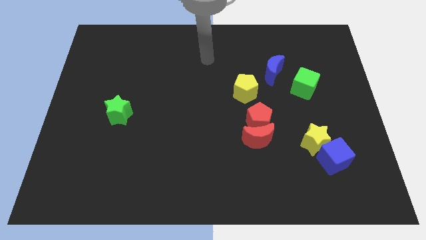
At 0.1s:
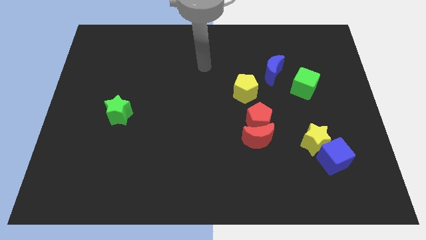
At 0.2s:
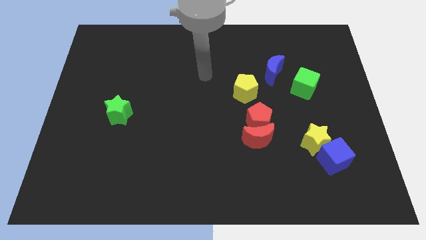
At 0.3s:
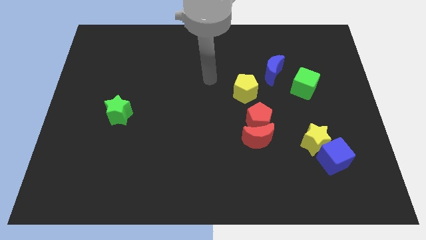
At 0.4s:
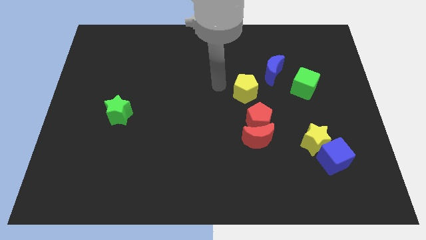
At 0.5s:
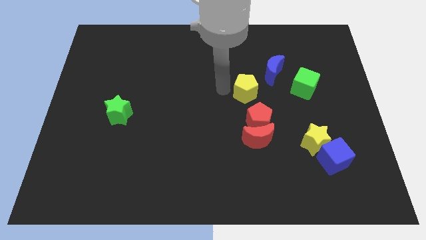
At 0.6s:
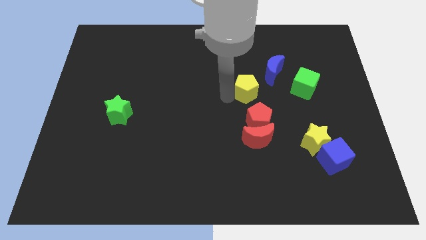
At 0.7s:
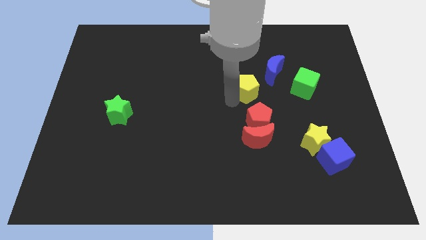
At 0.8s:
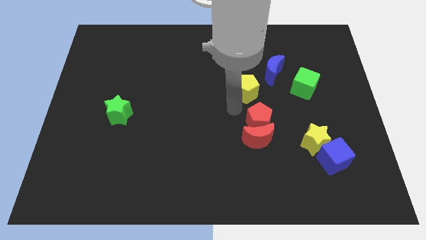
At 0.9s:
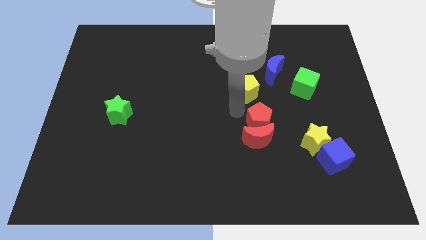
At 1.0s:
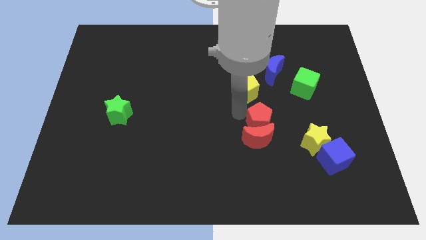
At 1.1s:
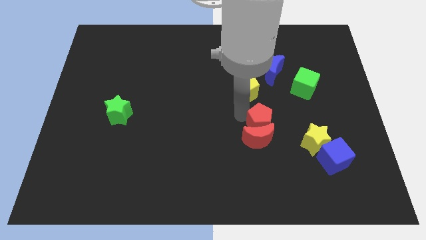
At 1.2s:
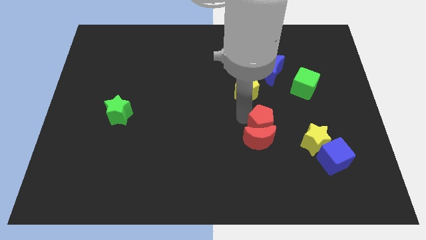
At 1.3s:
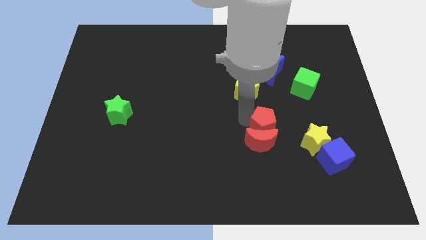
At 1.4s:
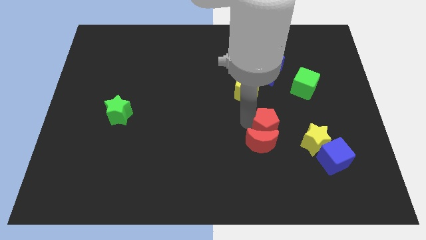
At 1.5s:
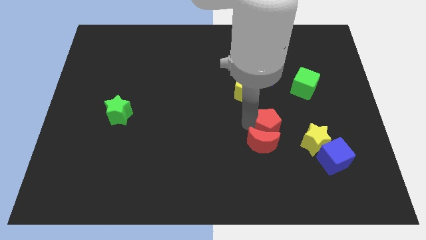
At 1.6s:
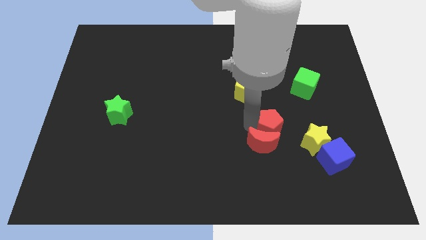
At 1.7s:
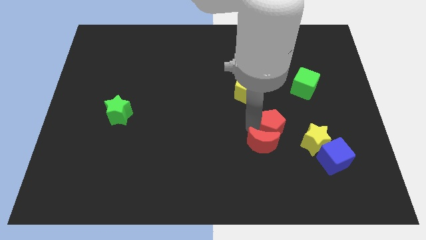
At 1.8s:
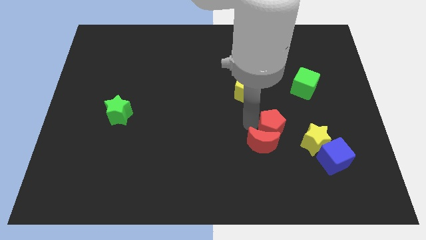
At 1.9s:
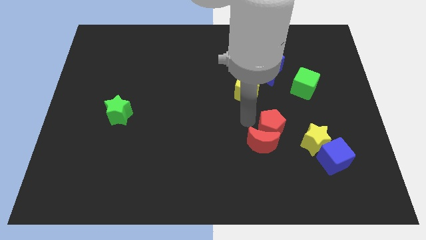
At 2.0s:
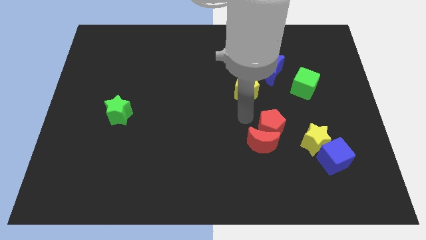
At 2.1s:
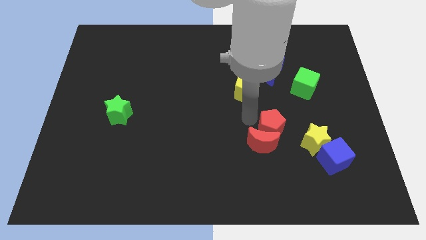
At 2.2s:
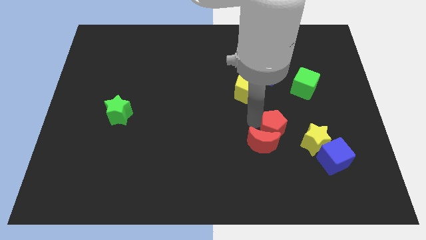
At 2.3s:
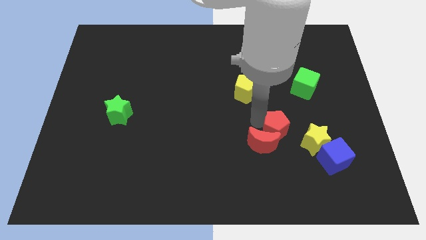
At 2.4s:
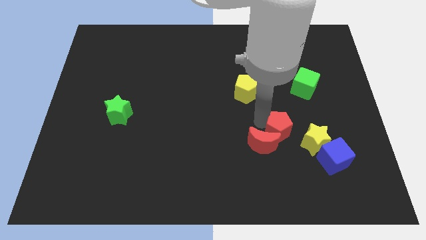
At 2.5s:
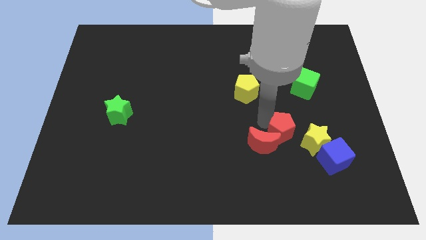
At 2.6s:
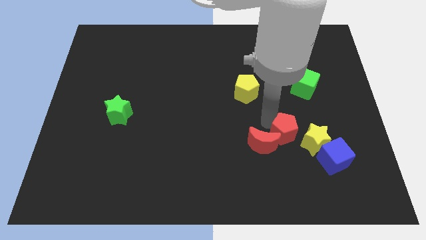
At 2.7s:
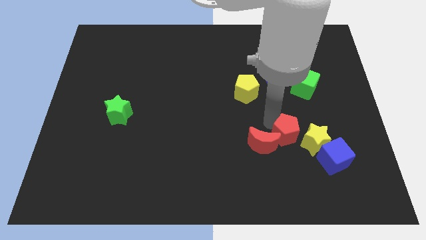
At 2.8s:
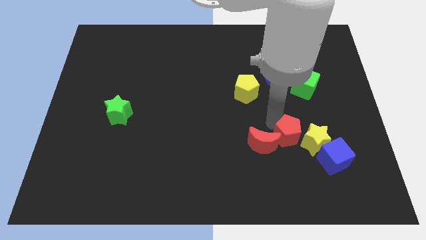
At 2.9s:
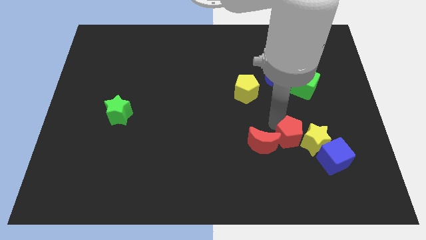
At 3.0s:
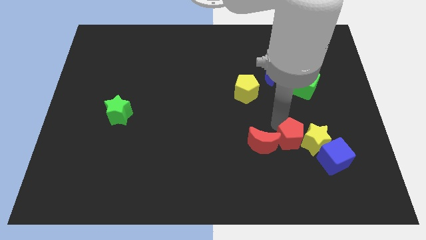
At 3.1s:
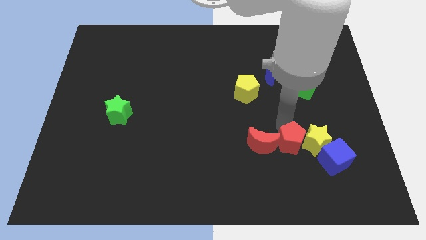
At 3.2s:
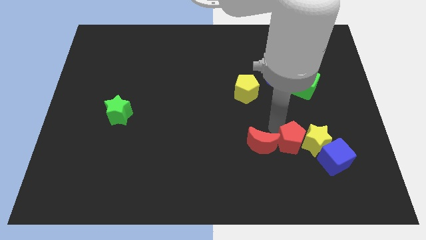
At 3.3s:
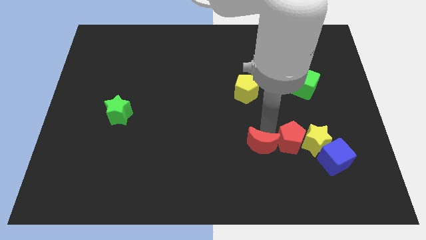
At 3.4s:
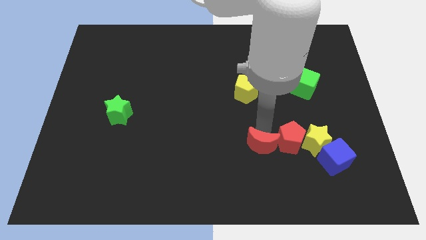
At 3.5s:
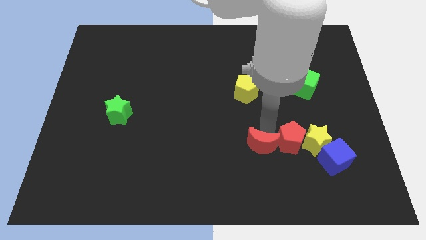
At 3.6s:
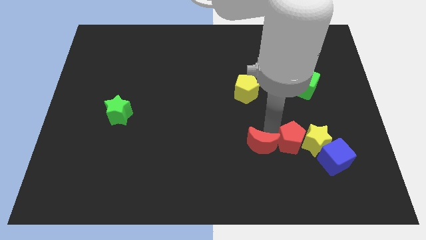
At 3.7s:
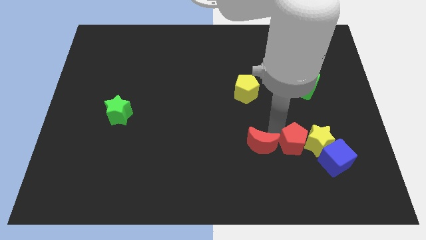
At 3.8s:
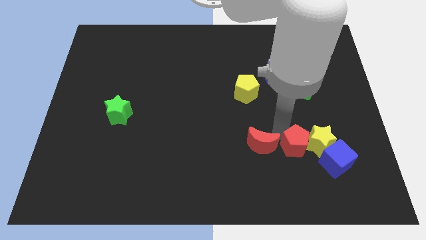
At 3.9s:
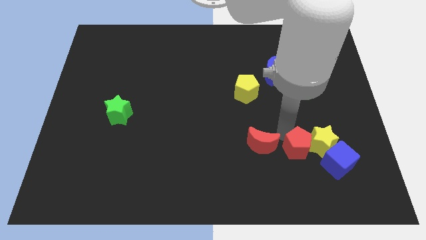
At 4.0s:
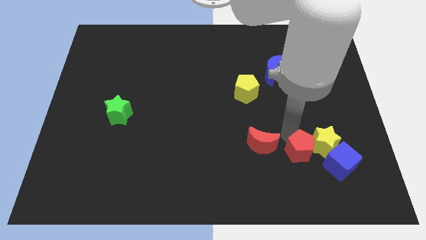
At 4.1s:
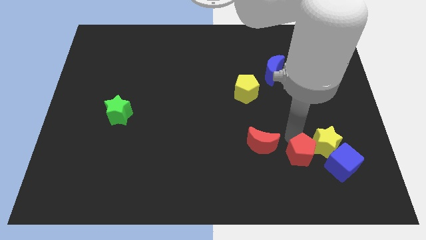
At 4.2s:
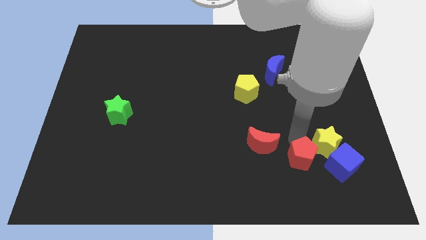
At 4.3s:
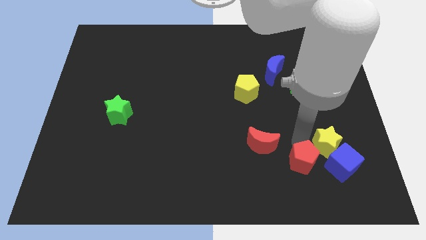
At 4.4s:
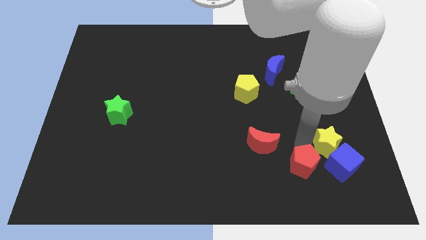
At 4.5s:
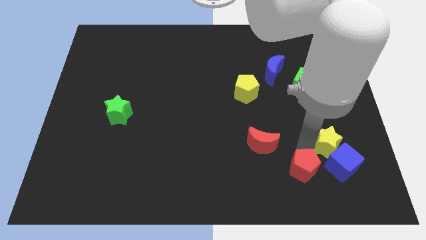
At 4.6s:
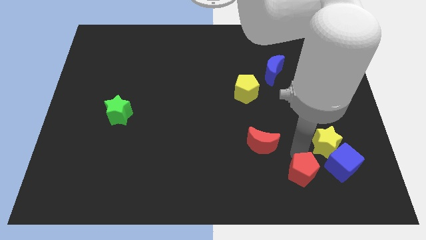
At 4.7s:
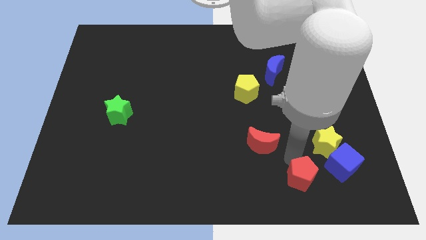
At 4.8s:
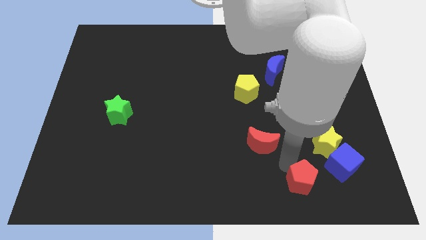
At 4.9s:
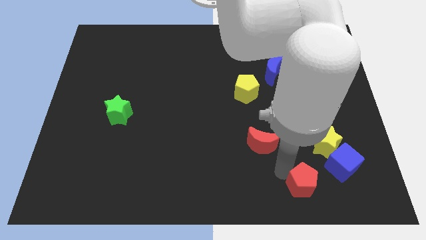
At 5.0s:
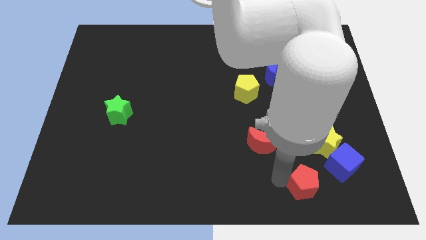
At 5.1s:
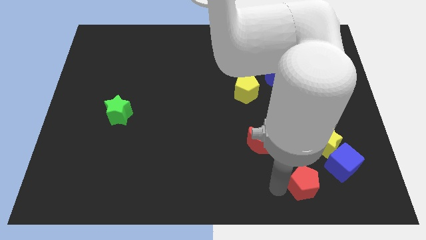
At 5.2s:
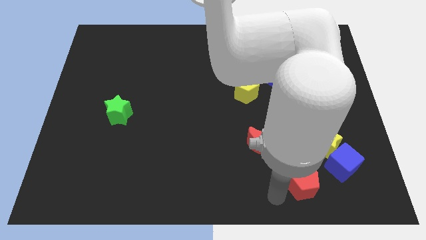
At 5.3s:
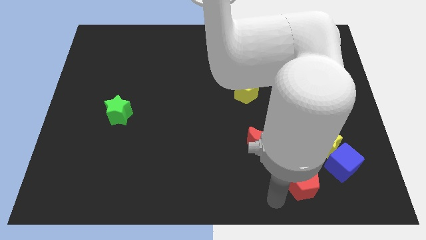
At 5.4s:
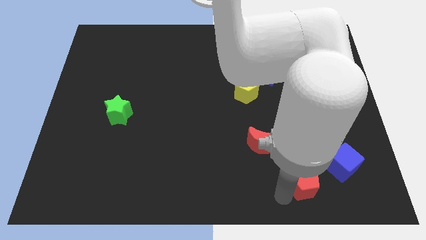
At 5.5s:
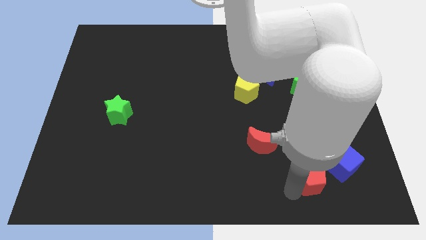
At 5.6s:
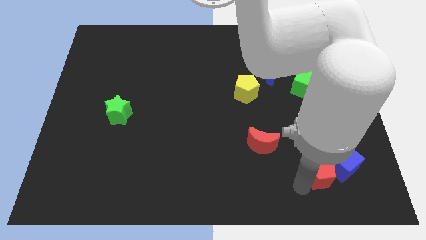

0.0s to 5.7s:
put the red pentagon towards the blue cube
